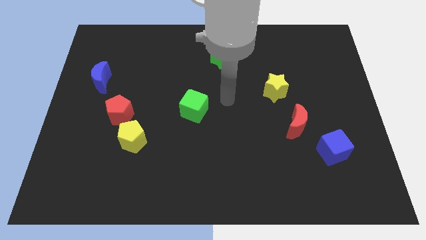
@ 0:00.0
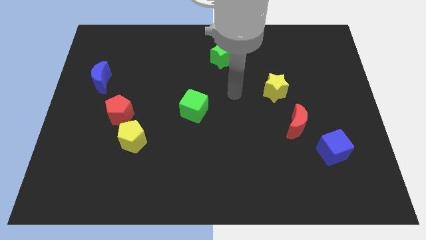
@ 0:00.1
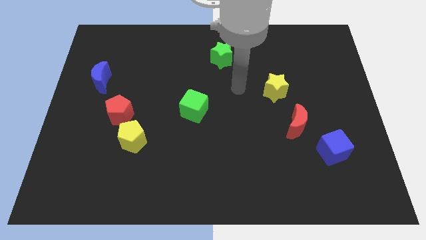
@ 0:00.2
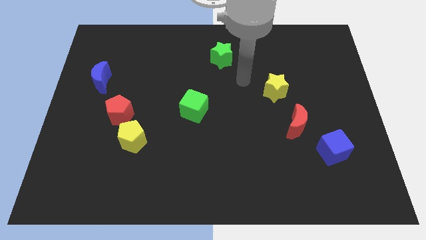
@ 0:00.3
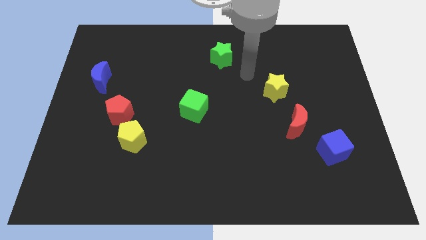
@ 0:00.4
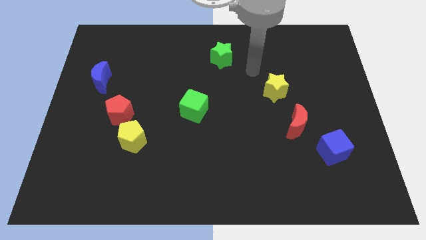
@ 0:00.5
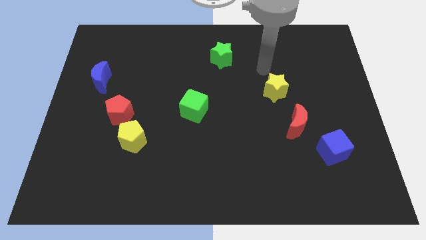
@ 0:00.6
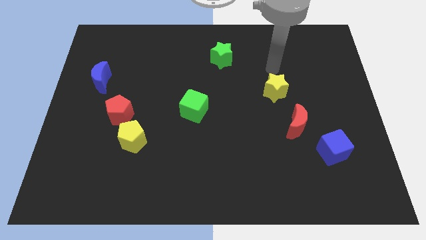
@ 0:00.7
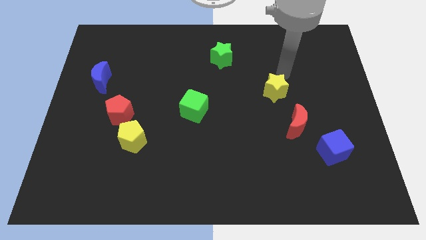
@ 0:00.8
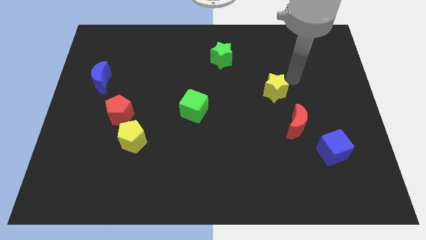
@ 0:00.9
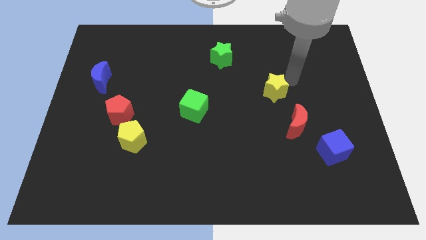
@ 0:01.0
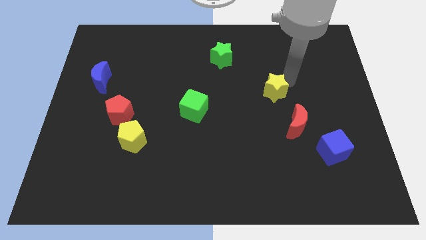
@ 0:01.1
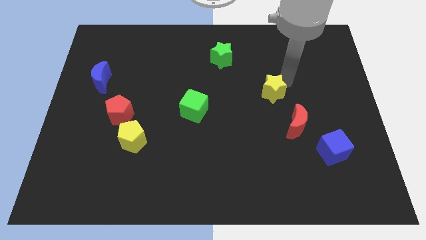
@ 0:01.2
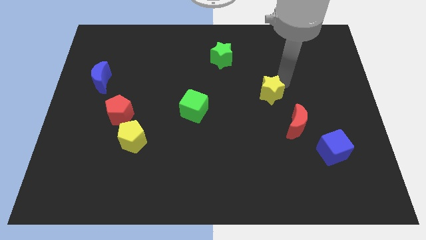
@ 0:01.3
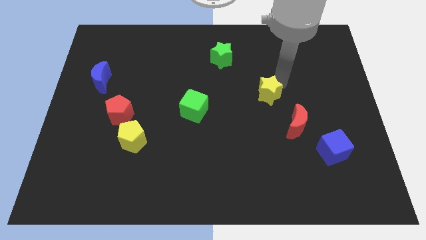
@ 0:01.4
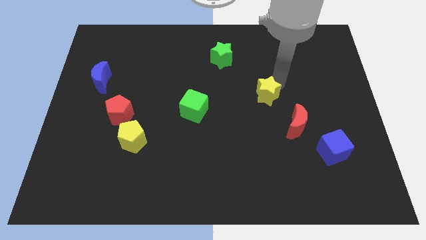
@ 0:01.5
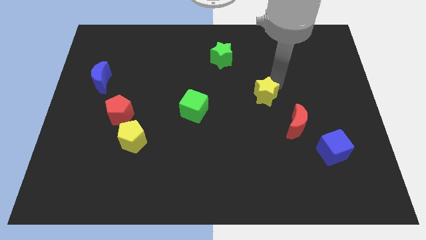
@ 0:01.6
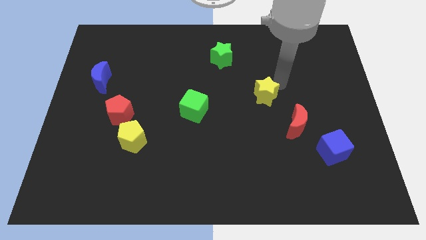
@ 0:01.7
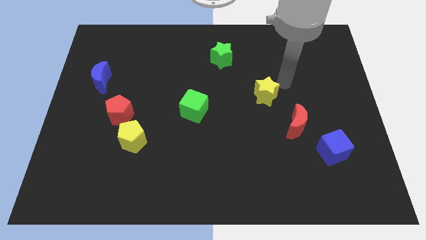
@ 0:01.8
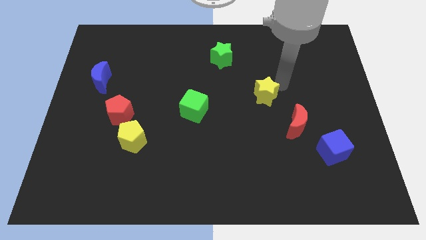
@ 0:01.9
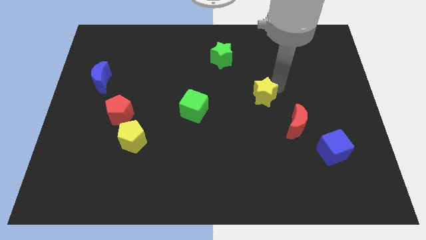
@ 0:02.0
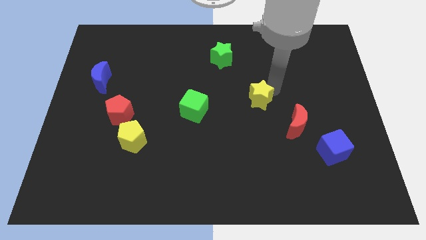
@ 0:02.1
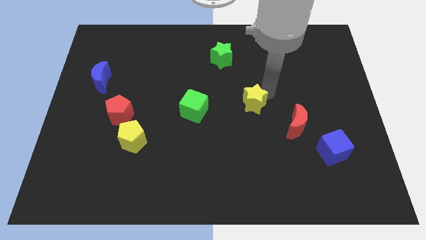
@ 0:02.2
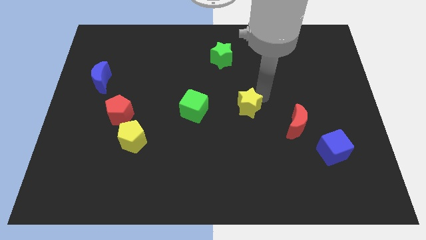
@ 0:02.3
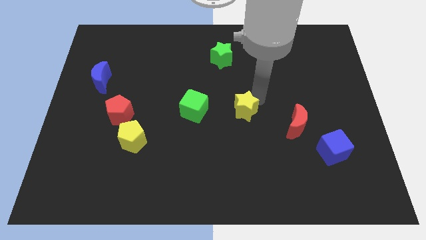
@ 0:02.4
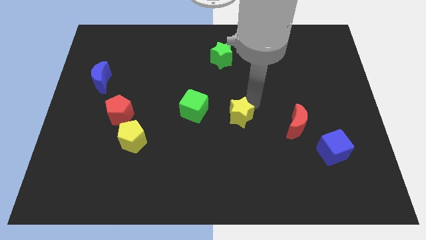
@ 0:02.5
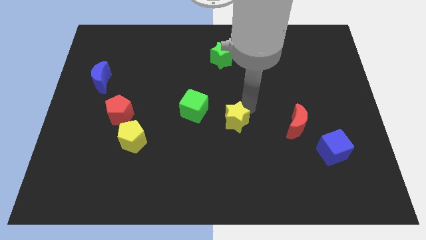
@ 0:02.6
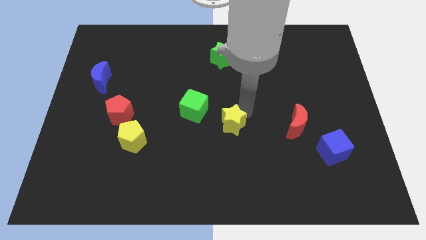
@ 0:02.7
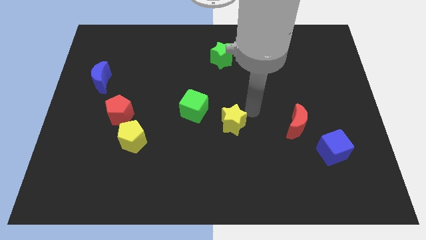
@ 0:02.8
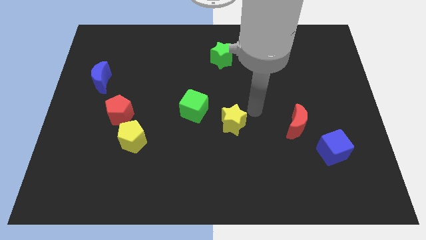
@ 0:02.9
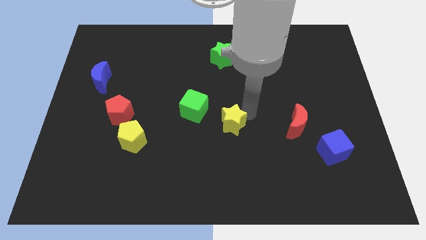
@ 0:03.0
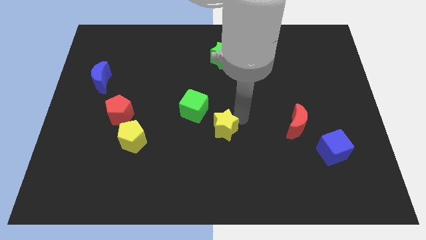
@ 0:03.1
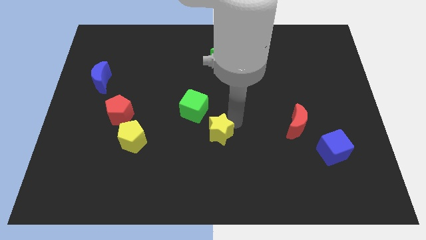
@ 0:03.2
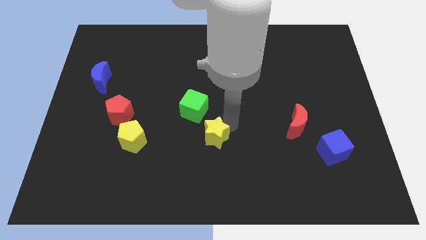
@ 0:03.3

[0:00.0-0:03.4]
move the yellow star down and to the left

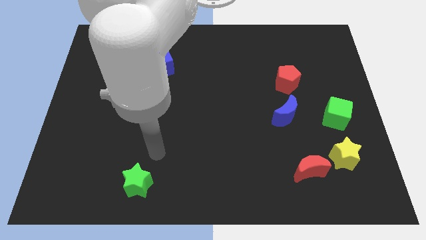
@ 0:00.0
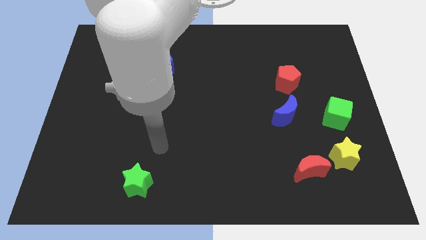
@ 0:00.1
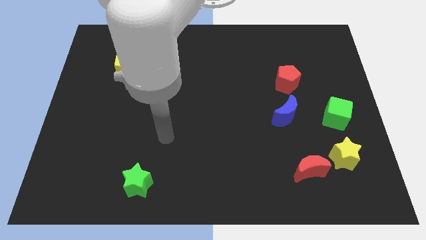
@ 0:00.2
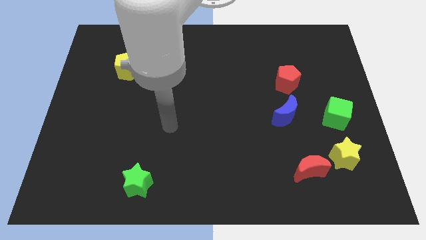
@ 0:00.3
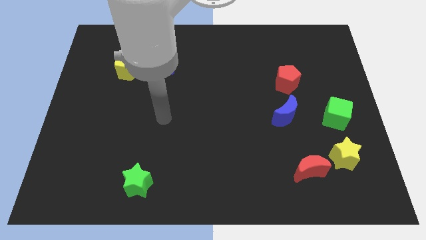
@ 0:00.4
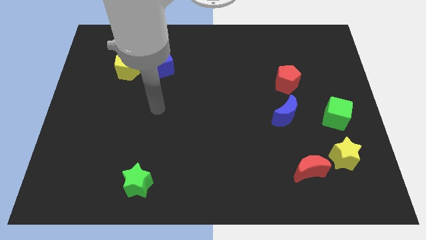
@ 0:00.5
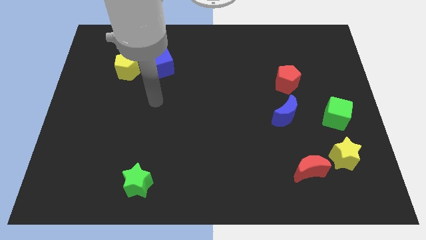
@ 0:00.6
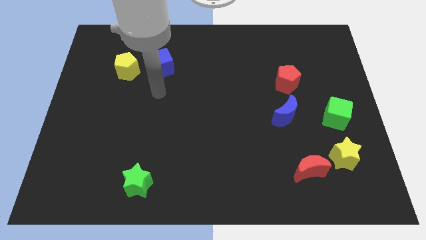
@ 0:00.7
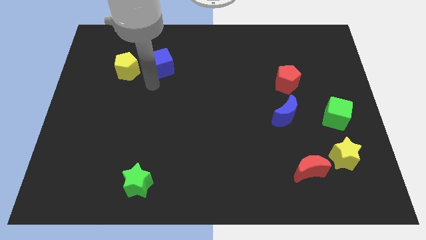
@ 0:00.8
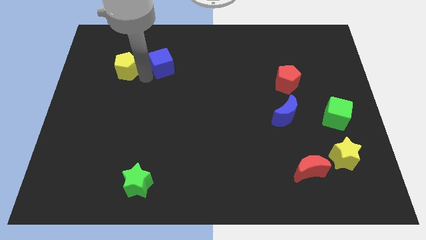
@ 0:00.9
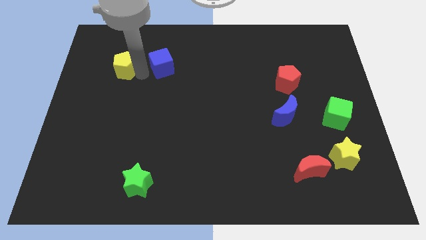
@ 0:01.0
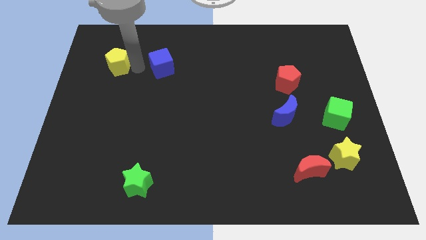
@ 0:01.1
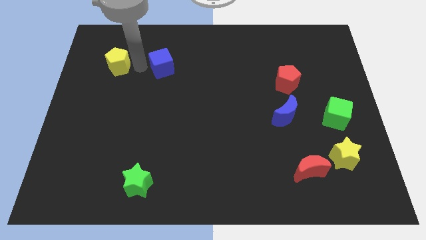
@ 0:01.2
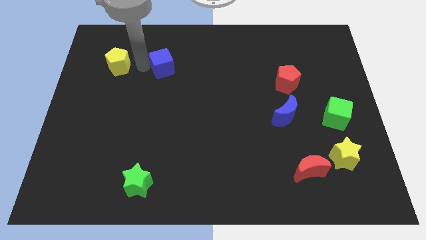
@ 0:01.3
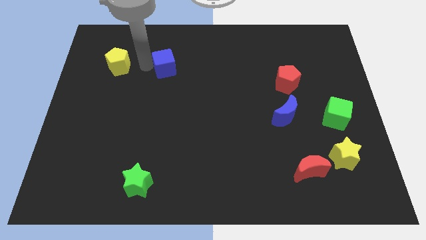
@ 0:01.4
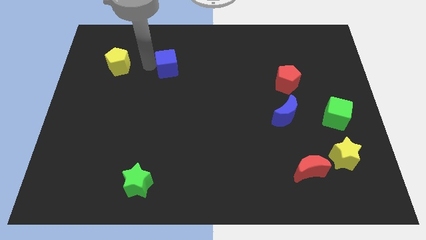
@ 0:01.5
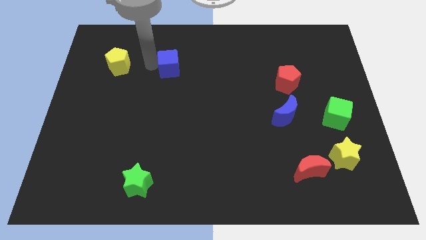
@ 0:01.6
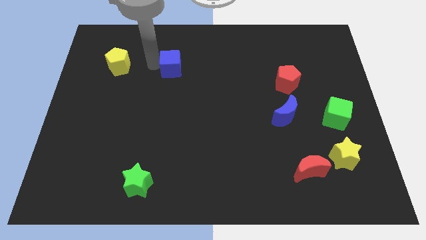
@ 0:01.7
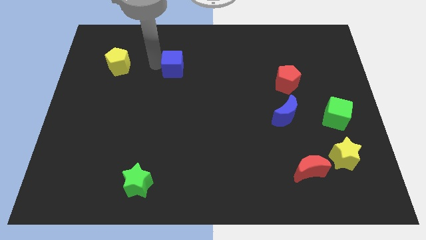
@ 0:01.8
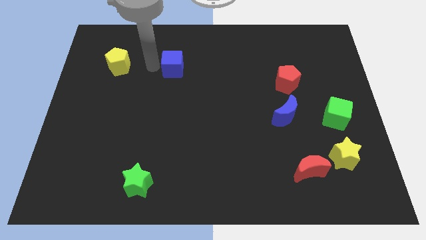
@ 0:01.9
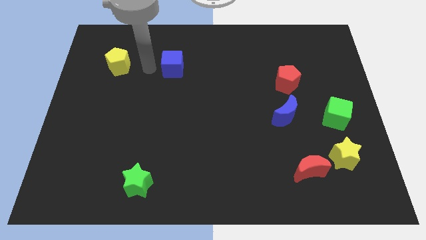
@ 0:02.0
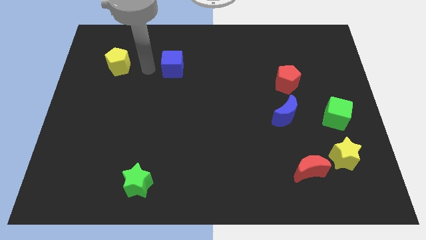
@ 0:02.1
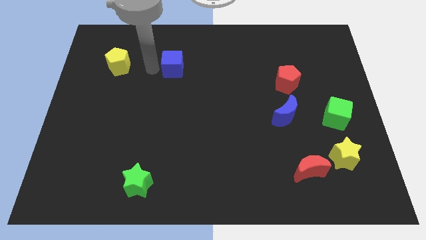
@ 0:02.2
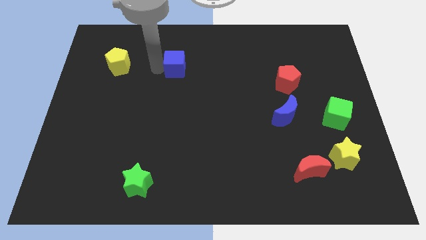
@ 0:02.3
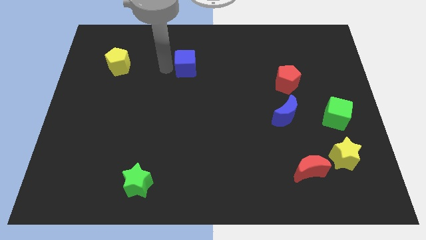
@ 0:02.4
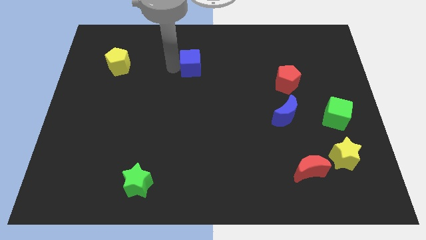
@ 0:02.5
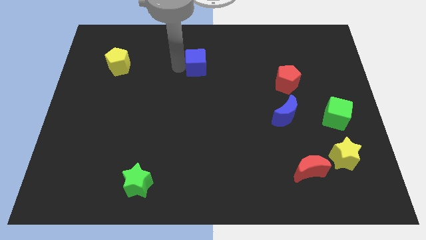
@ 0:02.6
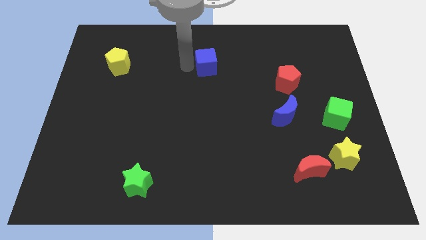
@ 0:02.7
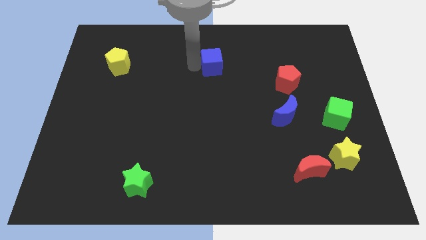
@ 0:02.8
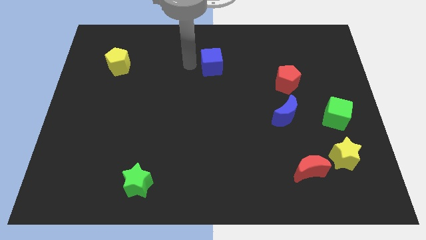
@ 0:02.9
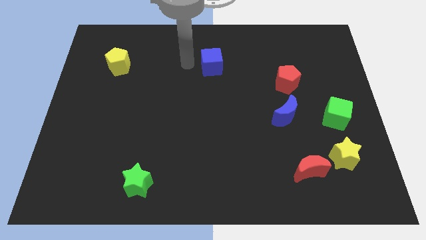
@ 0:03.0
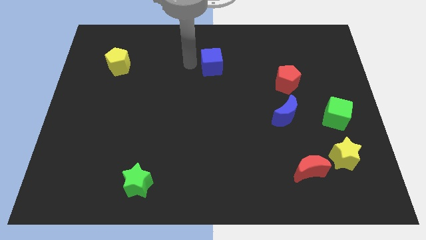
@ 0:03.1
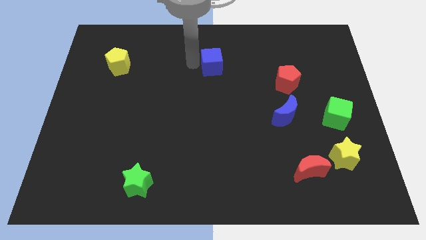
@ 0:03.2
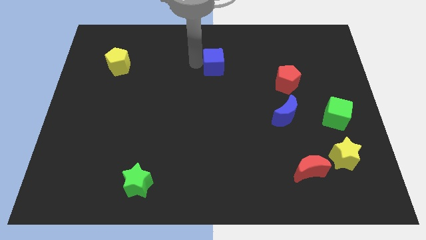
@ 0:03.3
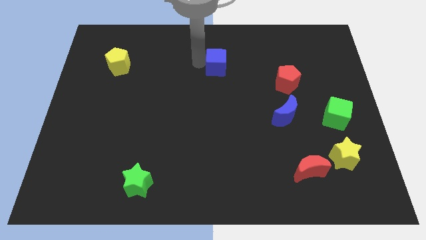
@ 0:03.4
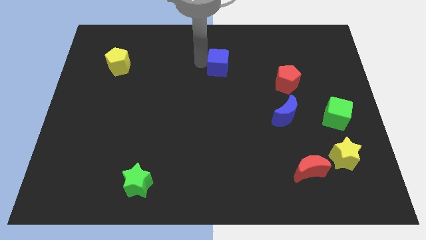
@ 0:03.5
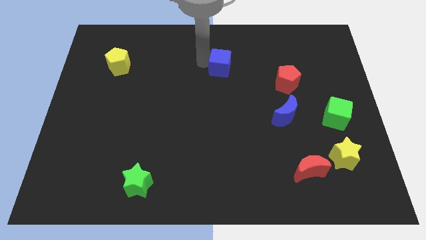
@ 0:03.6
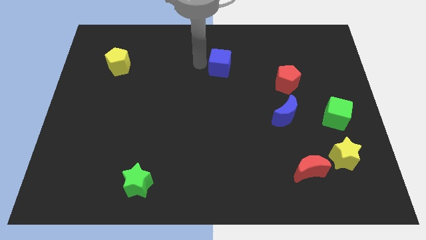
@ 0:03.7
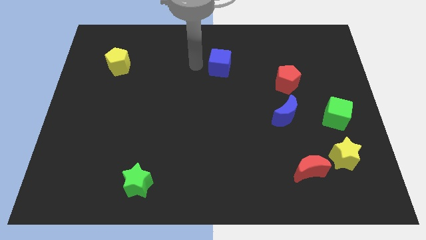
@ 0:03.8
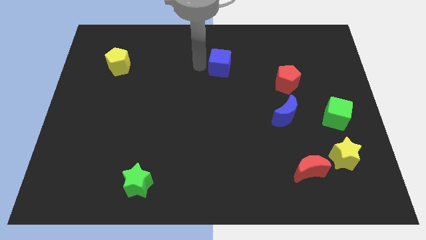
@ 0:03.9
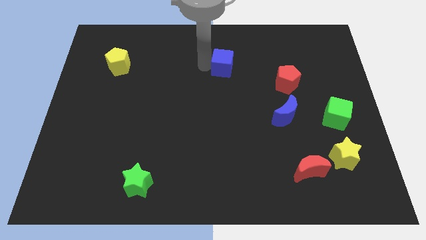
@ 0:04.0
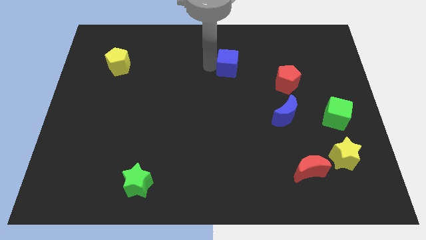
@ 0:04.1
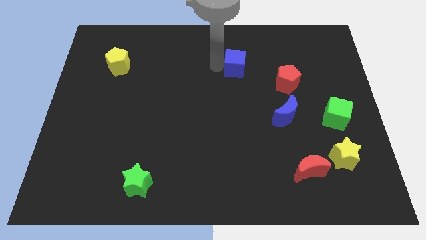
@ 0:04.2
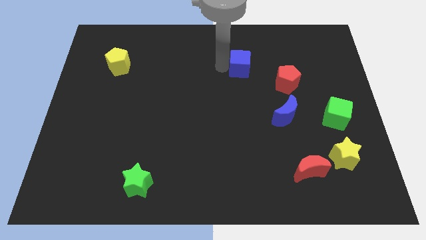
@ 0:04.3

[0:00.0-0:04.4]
push the blue cube to the right

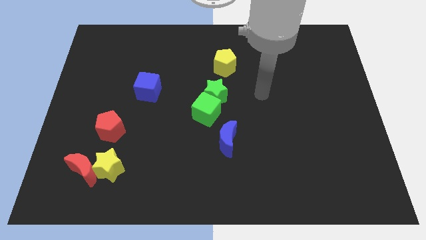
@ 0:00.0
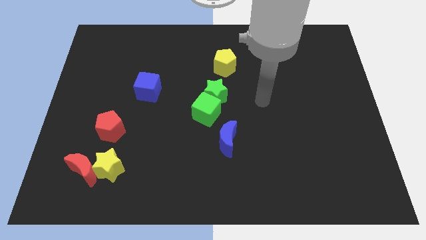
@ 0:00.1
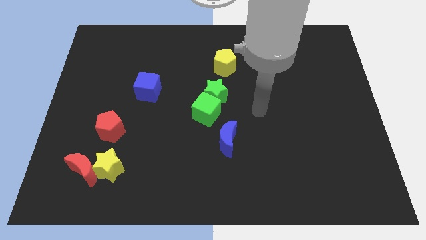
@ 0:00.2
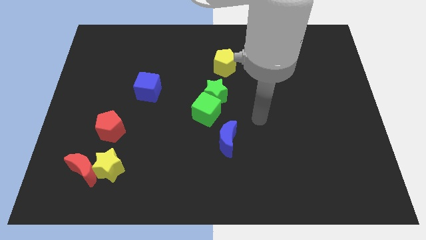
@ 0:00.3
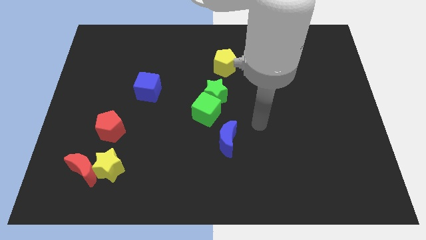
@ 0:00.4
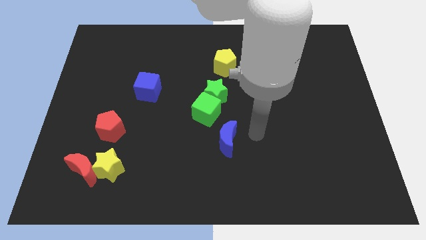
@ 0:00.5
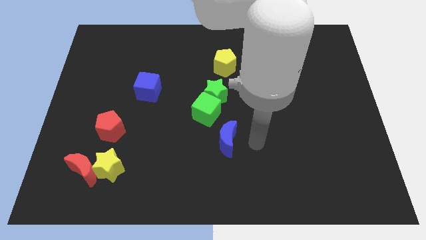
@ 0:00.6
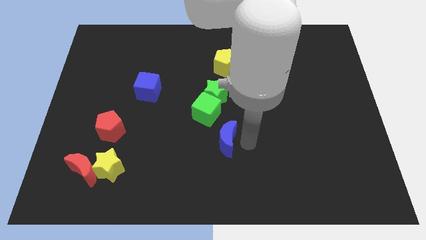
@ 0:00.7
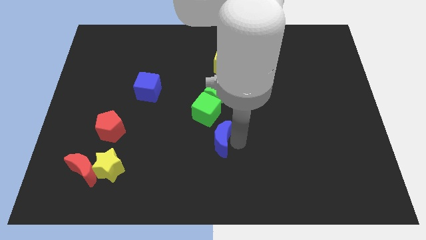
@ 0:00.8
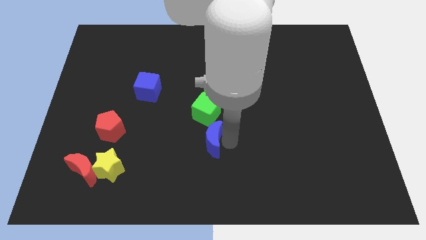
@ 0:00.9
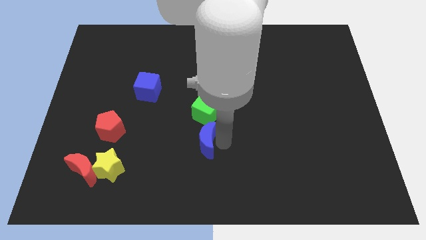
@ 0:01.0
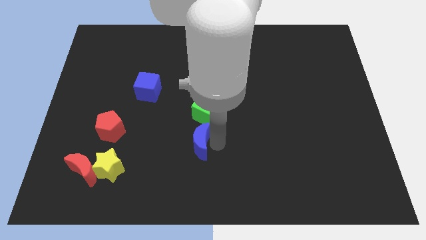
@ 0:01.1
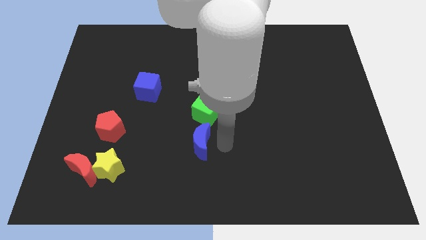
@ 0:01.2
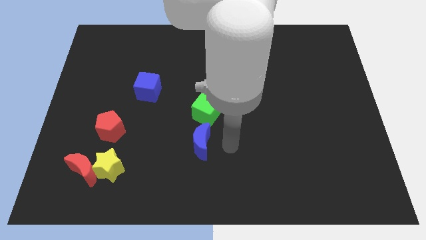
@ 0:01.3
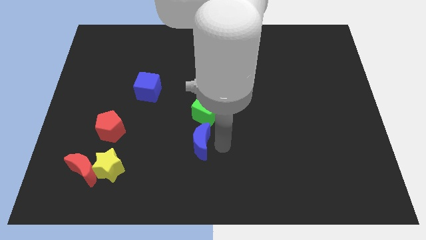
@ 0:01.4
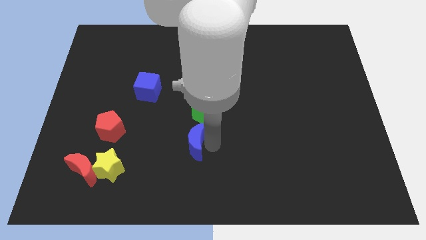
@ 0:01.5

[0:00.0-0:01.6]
move the blue moon left a little bit
